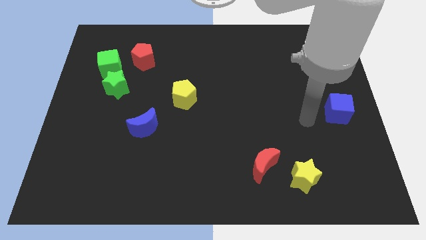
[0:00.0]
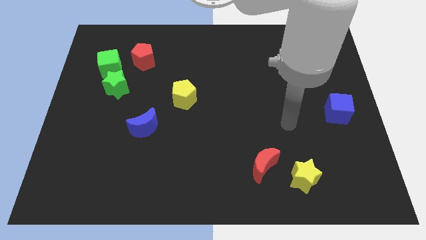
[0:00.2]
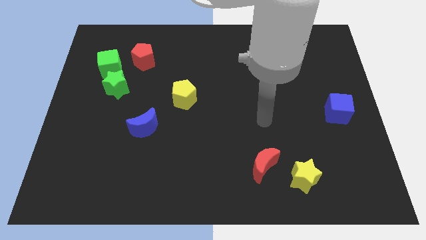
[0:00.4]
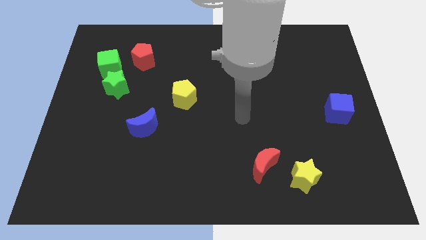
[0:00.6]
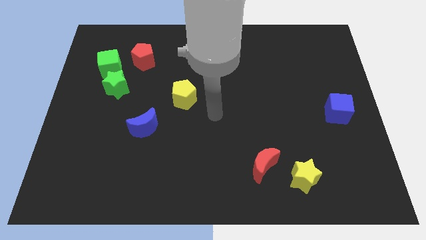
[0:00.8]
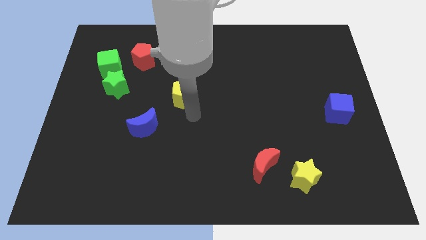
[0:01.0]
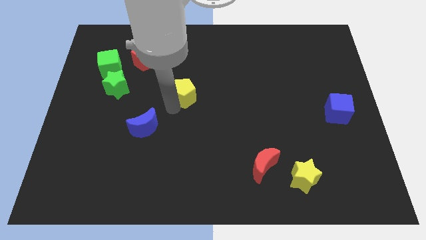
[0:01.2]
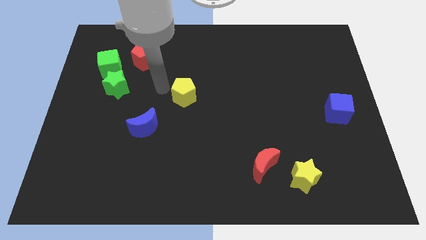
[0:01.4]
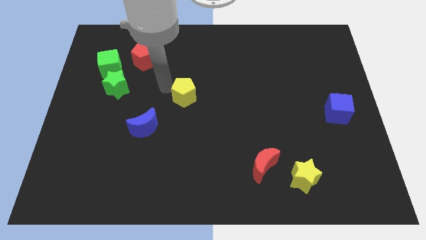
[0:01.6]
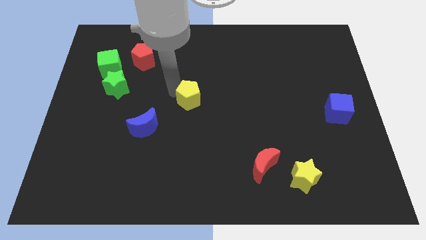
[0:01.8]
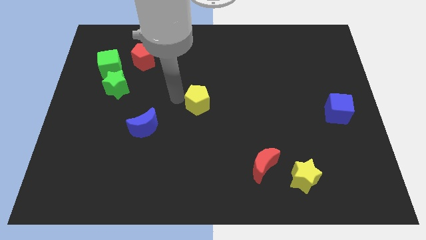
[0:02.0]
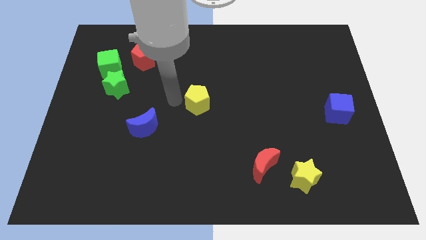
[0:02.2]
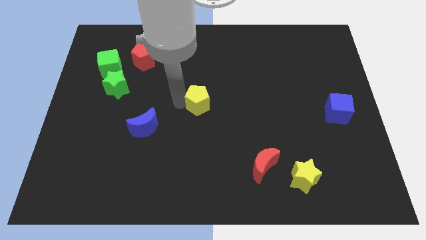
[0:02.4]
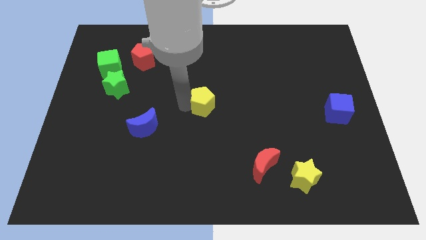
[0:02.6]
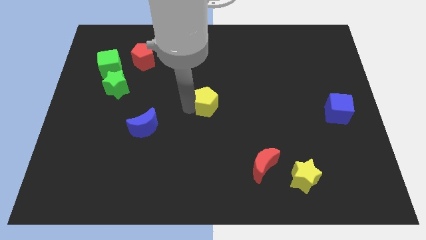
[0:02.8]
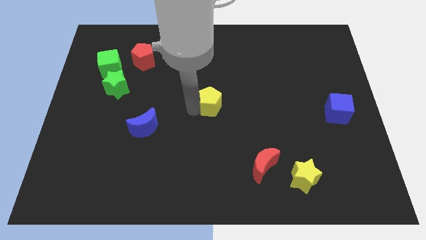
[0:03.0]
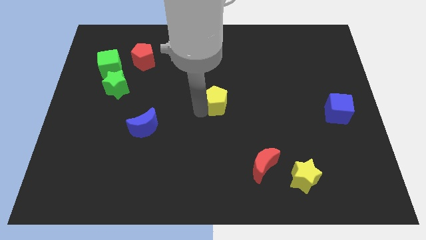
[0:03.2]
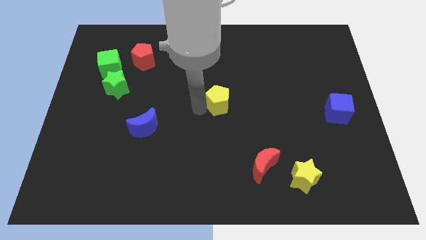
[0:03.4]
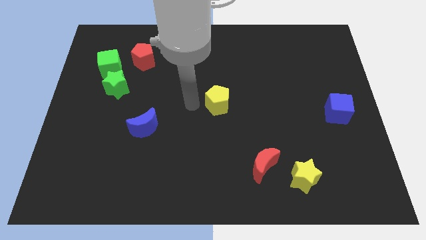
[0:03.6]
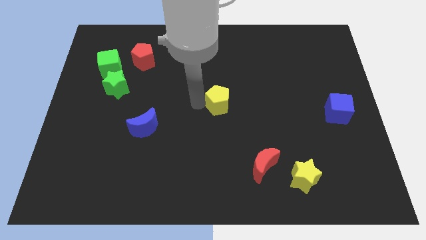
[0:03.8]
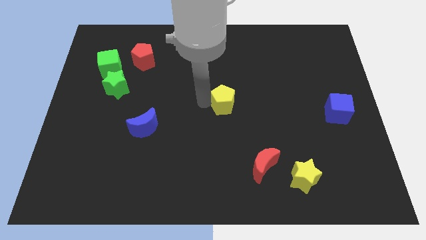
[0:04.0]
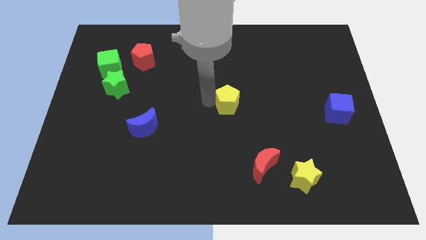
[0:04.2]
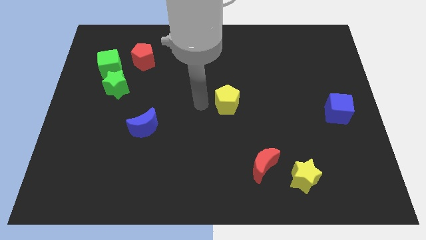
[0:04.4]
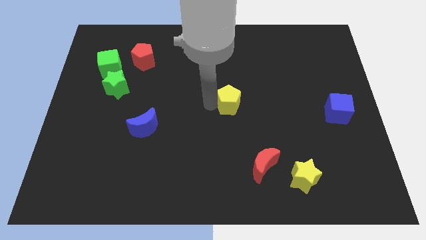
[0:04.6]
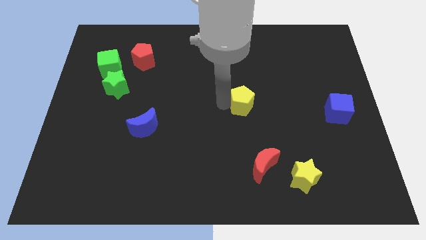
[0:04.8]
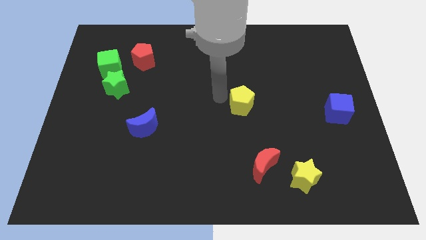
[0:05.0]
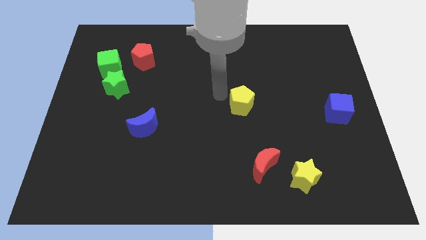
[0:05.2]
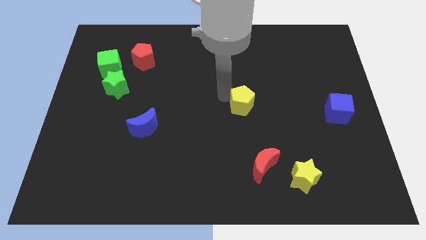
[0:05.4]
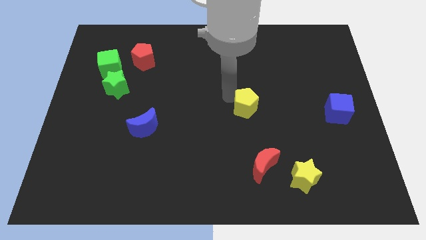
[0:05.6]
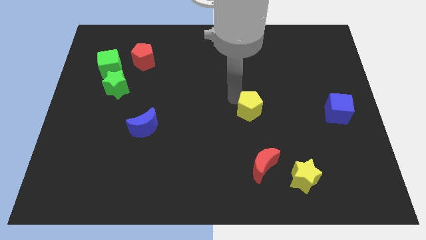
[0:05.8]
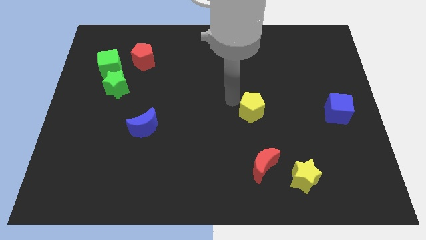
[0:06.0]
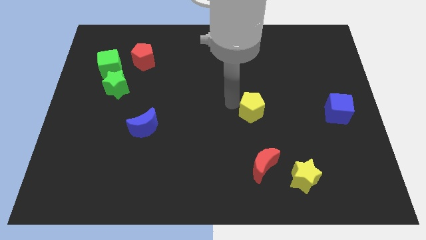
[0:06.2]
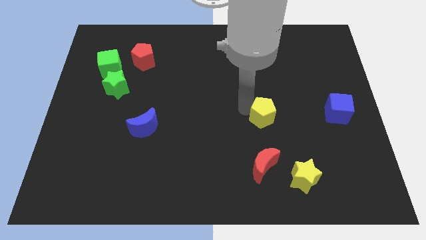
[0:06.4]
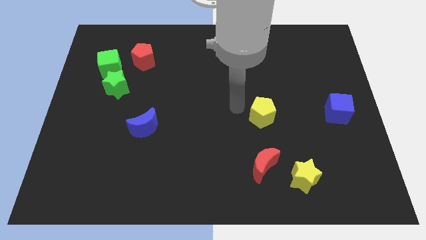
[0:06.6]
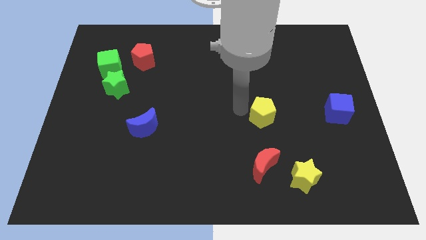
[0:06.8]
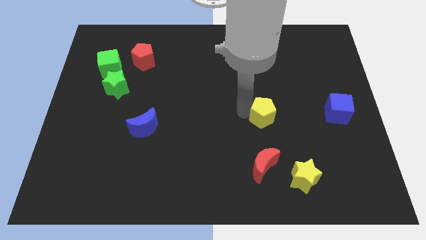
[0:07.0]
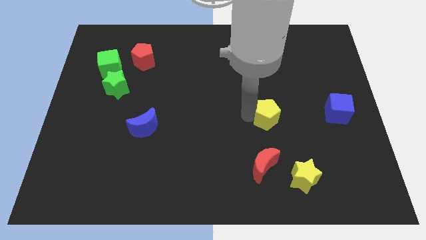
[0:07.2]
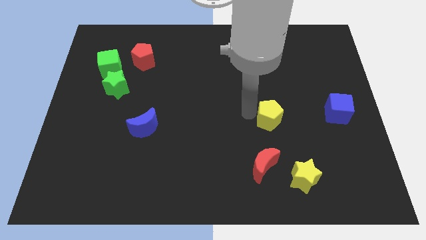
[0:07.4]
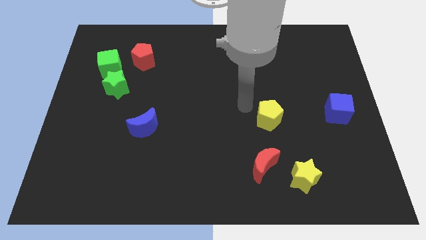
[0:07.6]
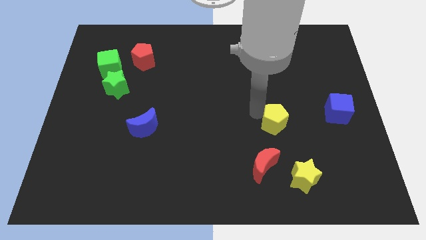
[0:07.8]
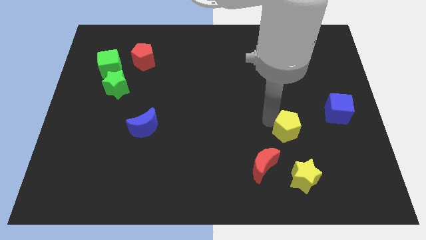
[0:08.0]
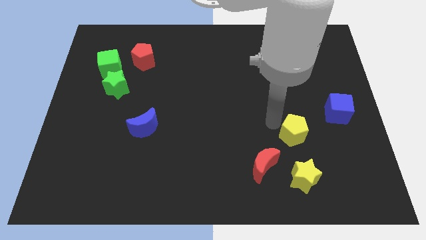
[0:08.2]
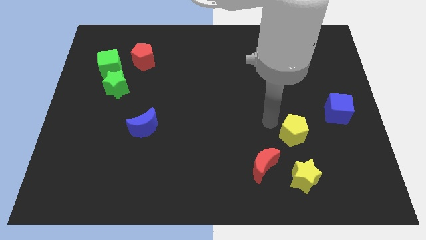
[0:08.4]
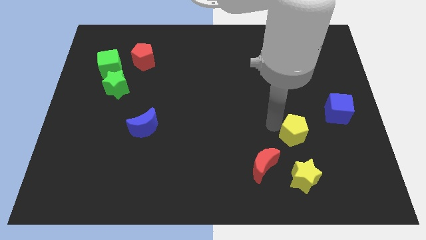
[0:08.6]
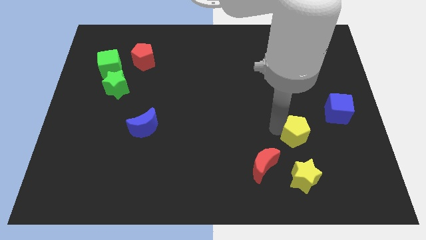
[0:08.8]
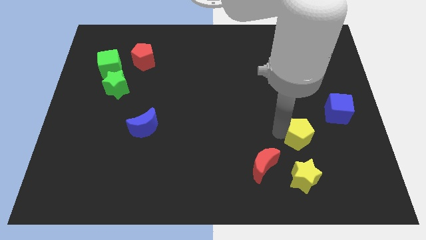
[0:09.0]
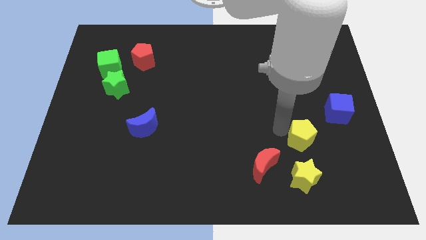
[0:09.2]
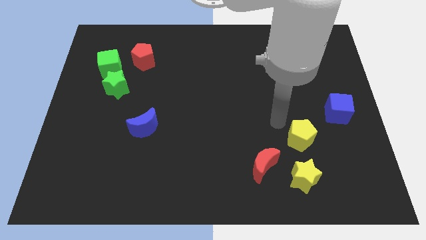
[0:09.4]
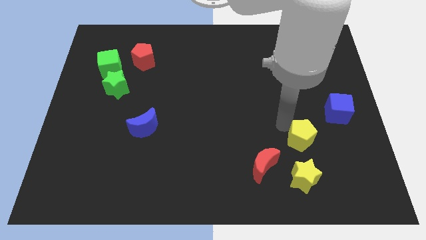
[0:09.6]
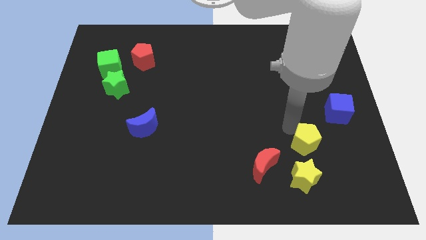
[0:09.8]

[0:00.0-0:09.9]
put the yellow pentagon diagonally up and to the right of the yellow star

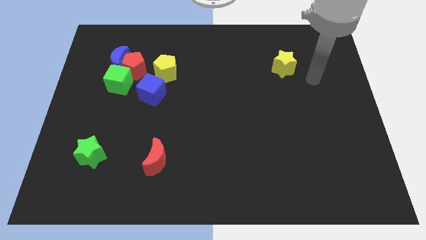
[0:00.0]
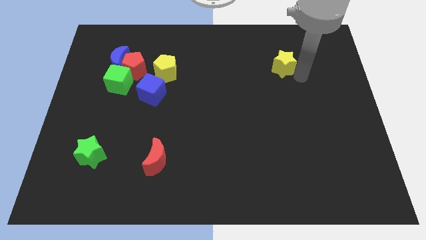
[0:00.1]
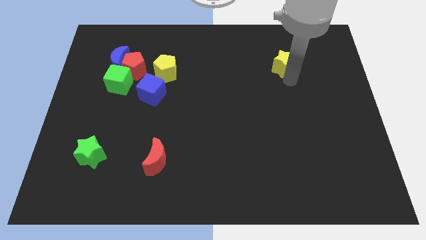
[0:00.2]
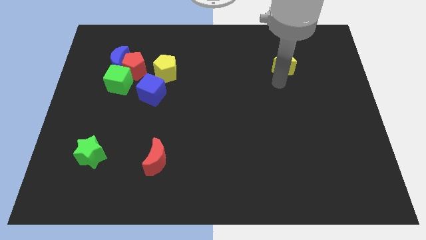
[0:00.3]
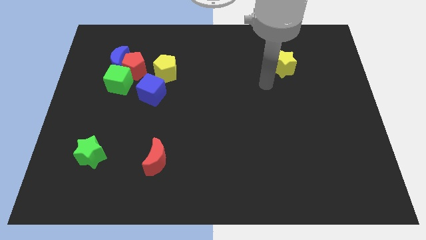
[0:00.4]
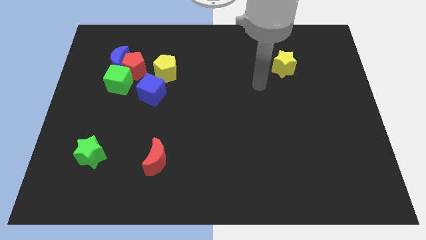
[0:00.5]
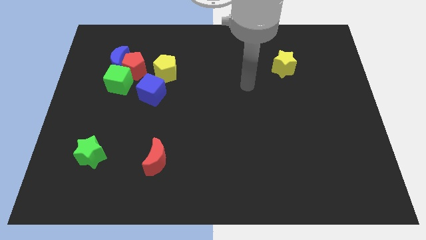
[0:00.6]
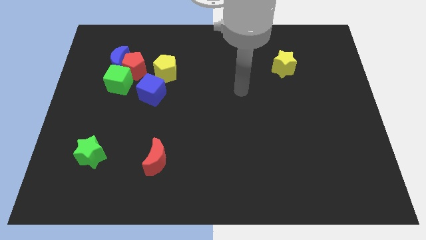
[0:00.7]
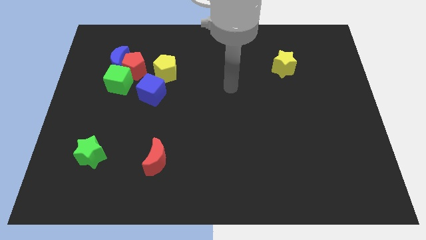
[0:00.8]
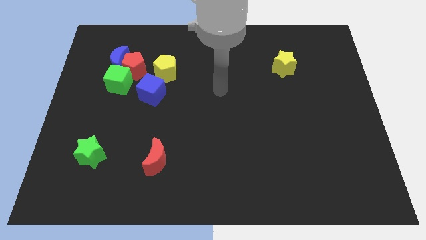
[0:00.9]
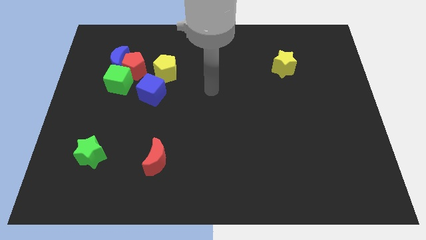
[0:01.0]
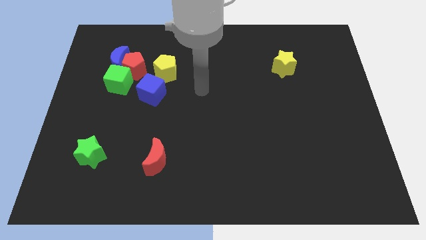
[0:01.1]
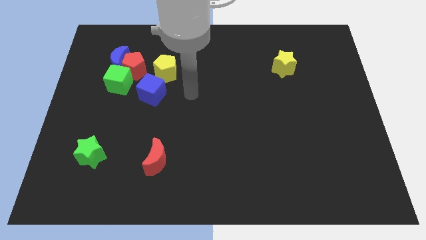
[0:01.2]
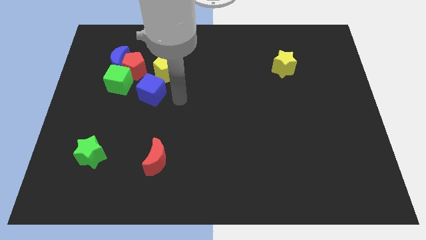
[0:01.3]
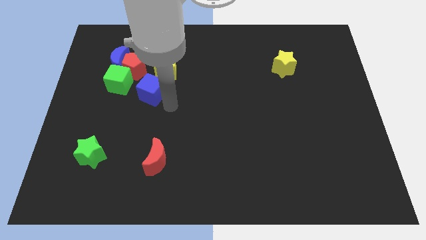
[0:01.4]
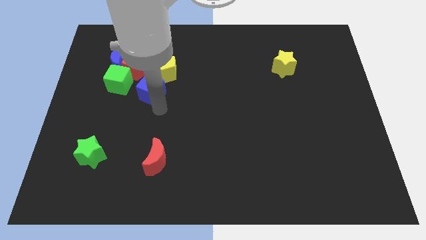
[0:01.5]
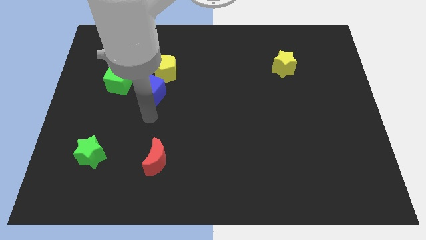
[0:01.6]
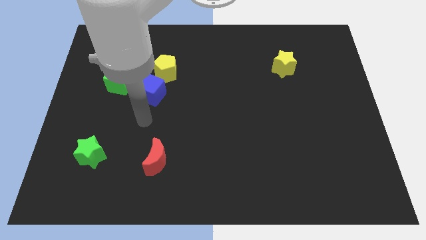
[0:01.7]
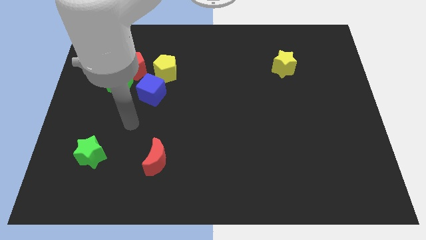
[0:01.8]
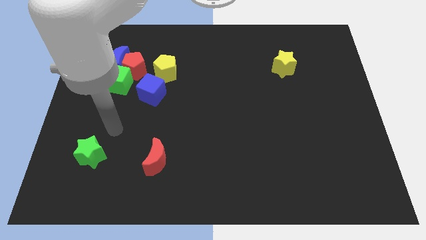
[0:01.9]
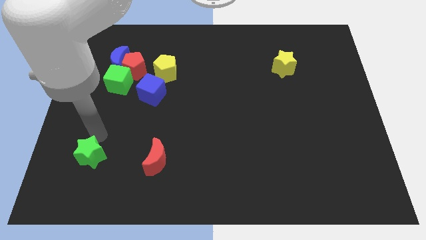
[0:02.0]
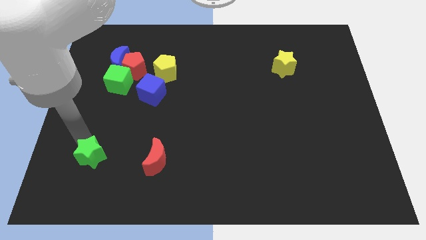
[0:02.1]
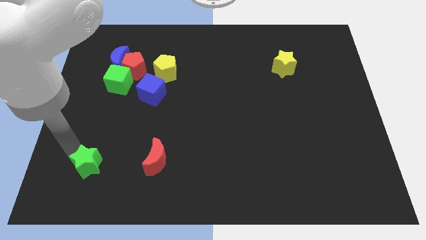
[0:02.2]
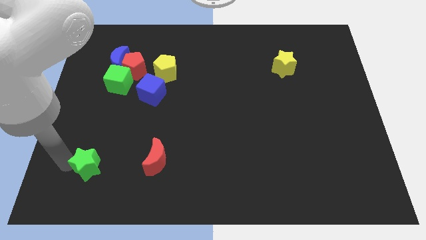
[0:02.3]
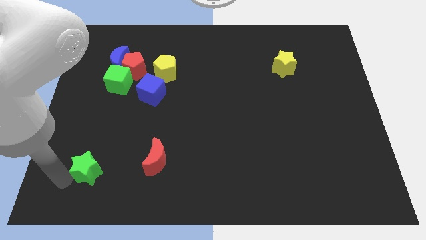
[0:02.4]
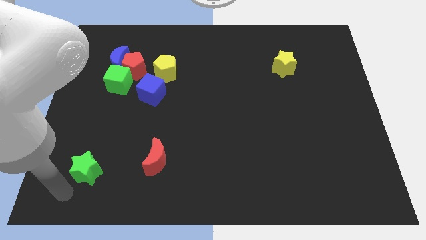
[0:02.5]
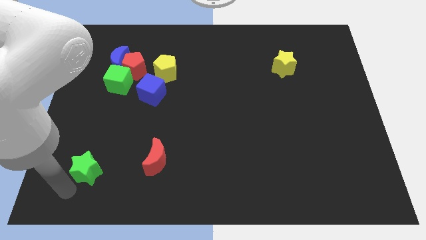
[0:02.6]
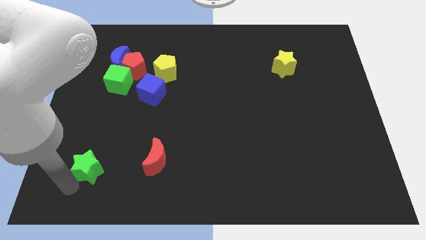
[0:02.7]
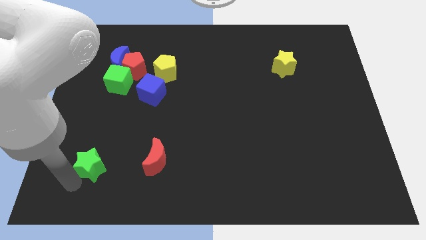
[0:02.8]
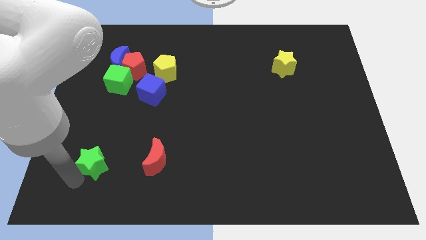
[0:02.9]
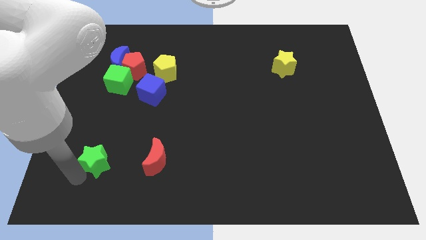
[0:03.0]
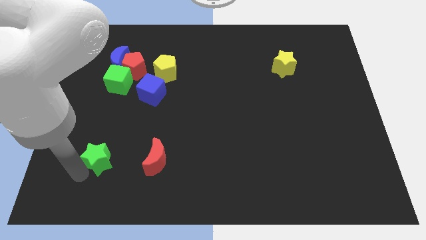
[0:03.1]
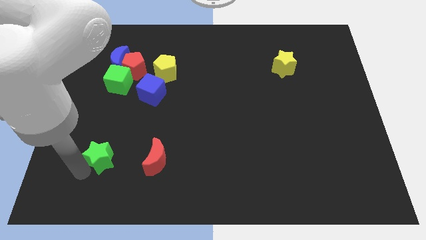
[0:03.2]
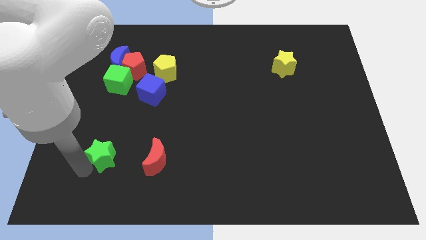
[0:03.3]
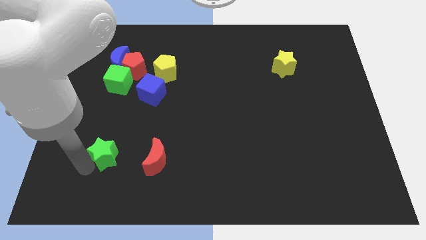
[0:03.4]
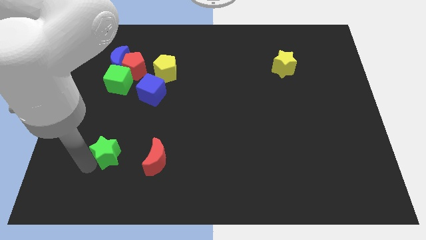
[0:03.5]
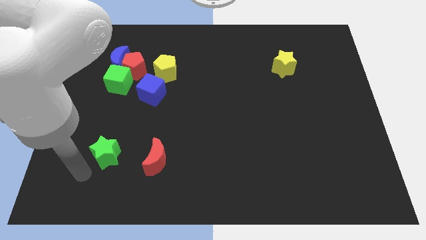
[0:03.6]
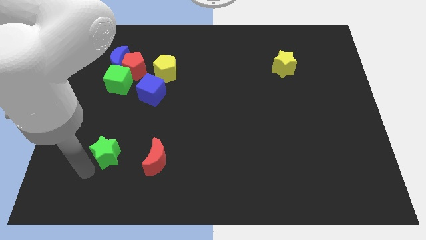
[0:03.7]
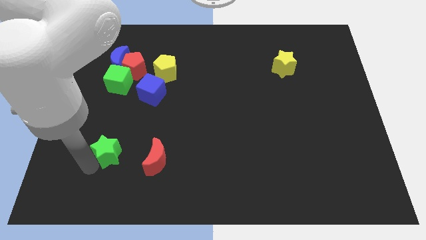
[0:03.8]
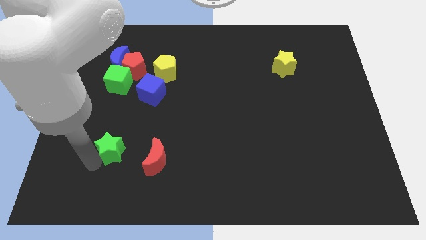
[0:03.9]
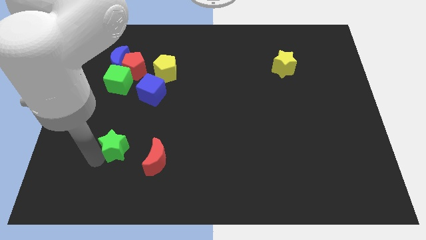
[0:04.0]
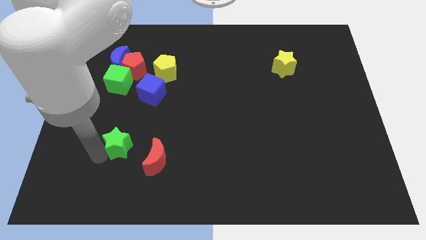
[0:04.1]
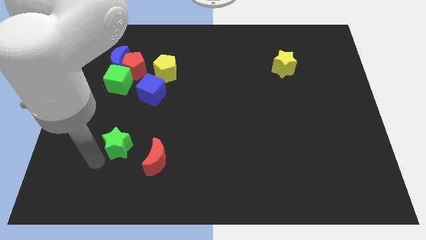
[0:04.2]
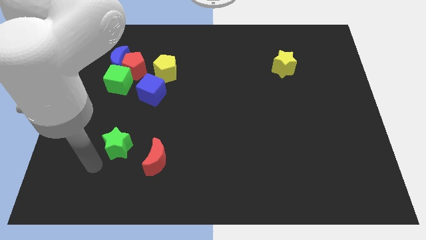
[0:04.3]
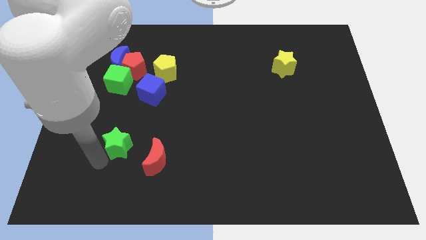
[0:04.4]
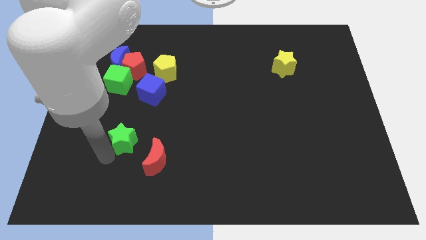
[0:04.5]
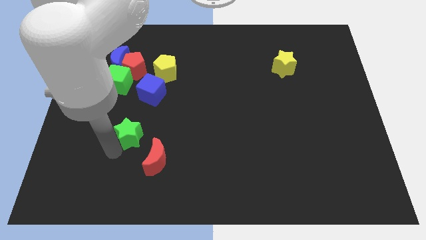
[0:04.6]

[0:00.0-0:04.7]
slide the green star below the blue cube
